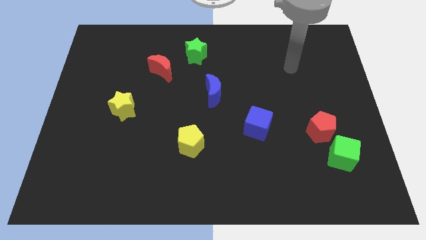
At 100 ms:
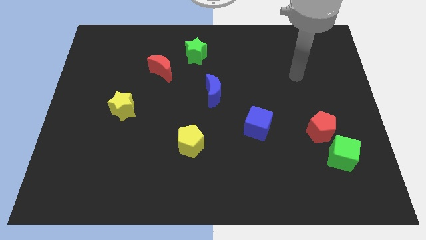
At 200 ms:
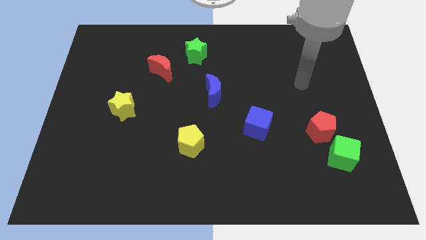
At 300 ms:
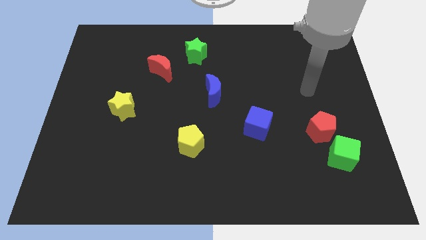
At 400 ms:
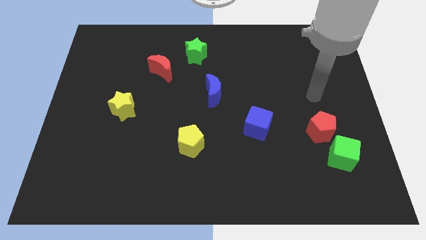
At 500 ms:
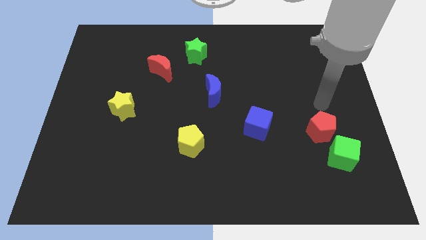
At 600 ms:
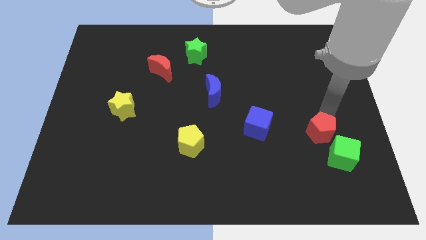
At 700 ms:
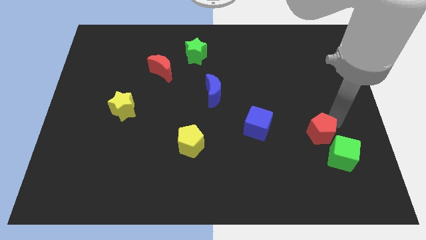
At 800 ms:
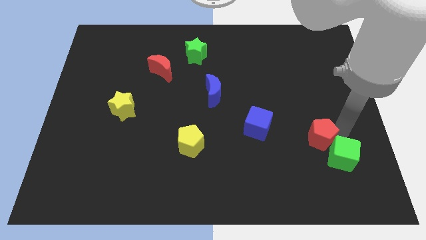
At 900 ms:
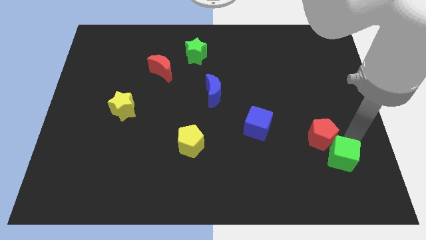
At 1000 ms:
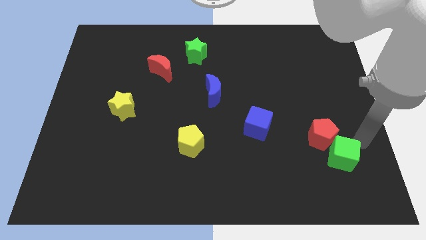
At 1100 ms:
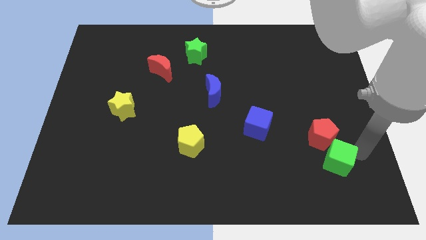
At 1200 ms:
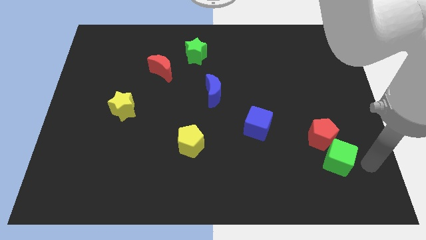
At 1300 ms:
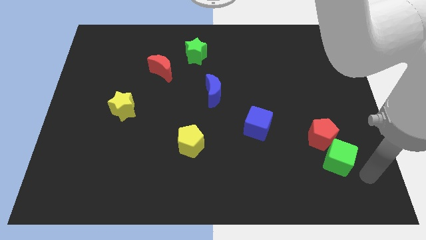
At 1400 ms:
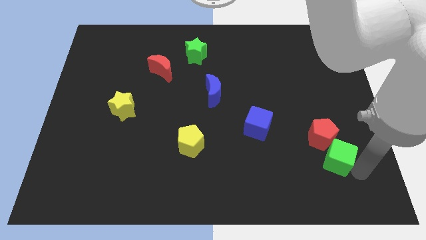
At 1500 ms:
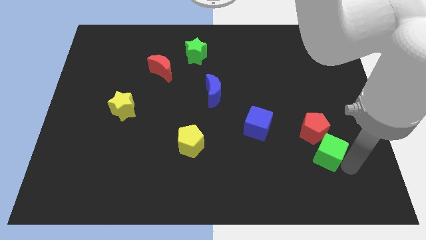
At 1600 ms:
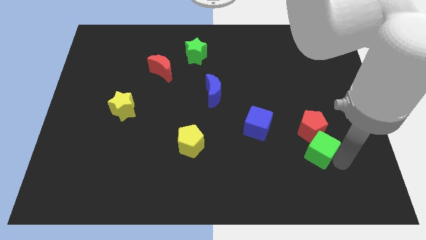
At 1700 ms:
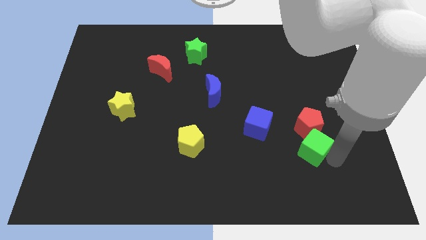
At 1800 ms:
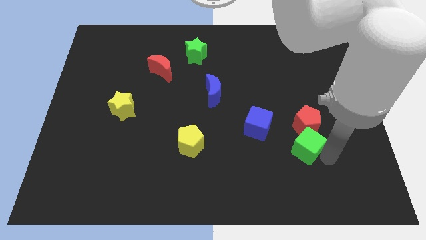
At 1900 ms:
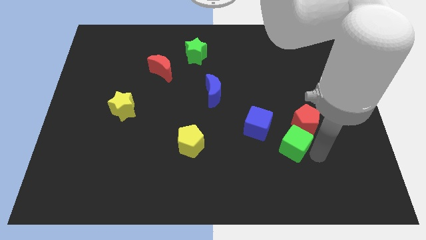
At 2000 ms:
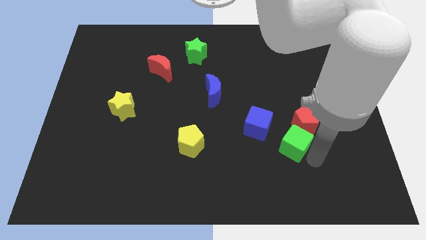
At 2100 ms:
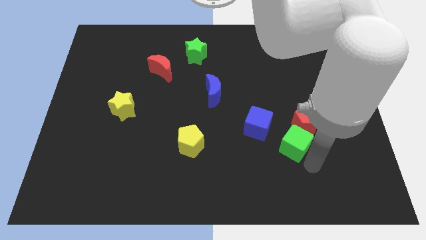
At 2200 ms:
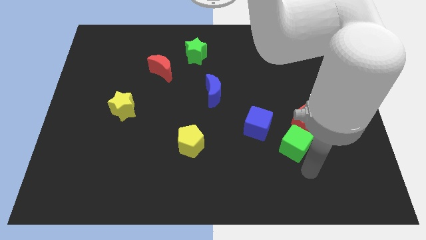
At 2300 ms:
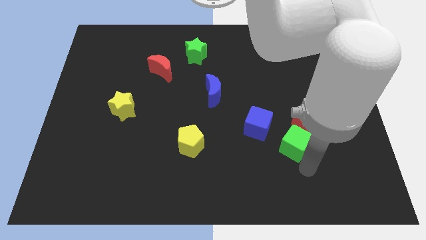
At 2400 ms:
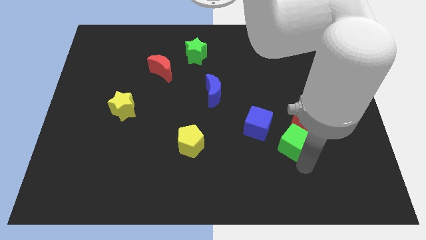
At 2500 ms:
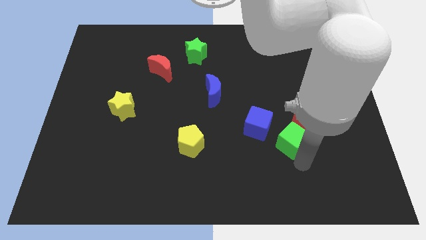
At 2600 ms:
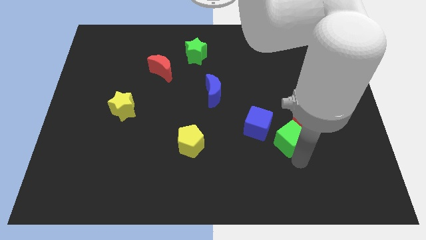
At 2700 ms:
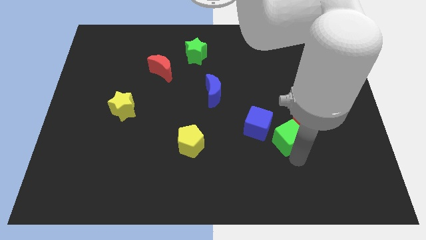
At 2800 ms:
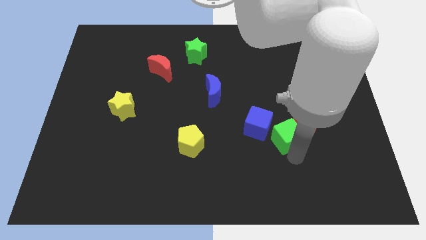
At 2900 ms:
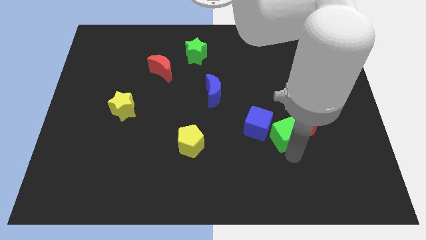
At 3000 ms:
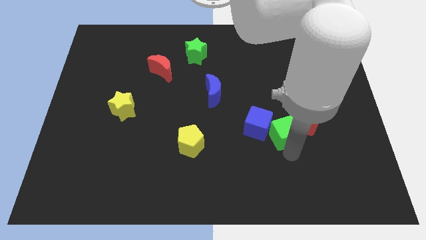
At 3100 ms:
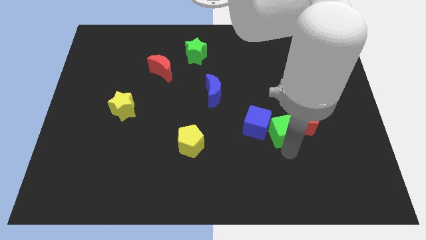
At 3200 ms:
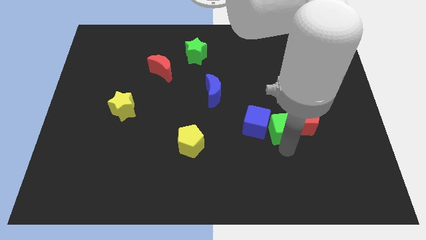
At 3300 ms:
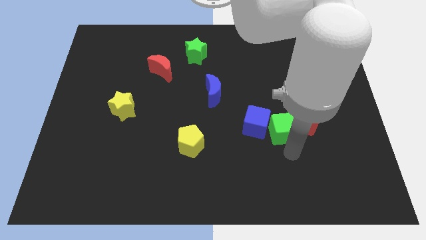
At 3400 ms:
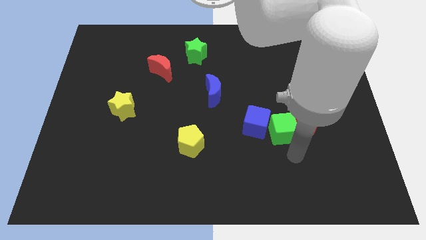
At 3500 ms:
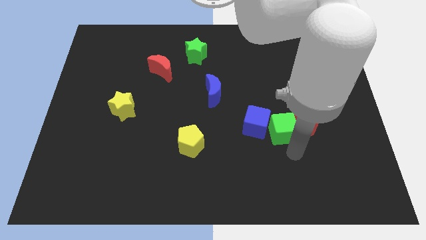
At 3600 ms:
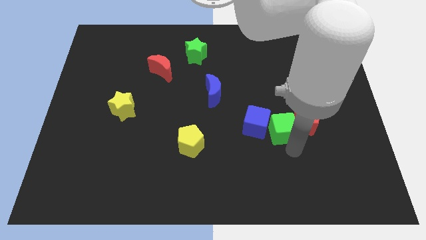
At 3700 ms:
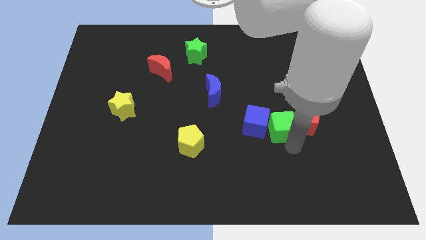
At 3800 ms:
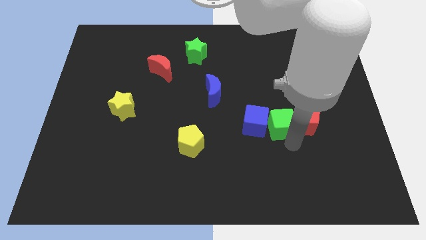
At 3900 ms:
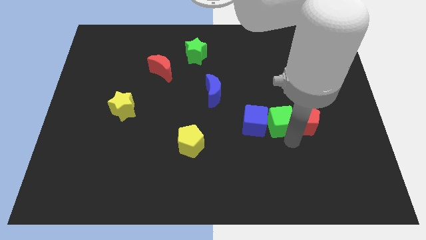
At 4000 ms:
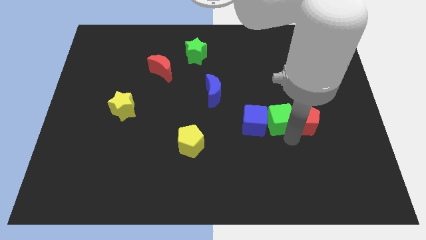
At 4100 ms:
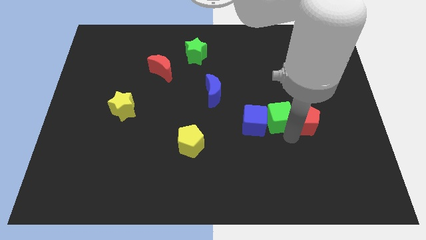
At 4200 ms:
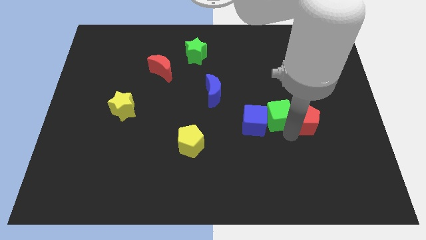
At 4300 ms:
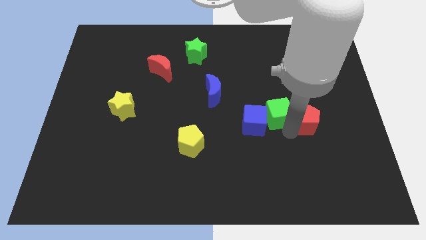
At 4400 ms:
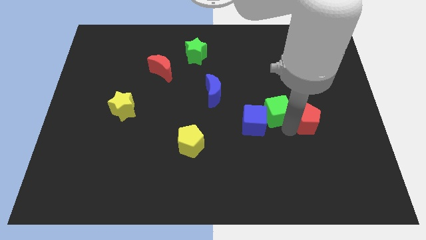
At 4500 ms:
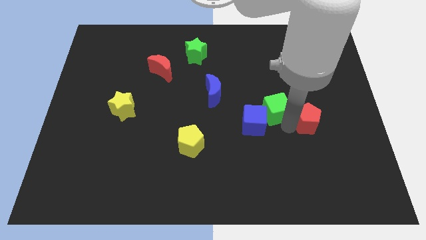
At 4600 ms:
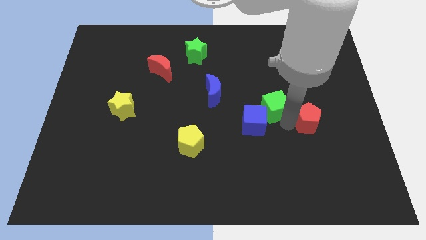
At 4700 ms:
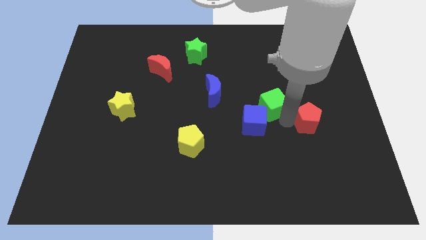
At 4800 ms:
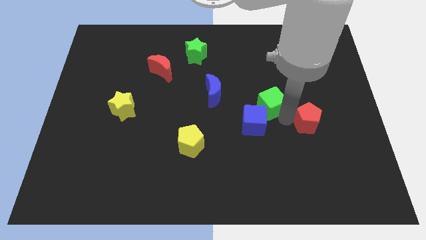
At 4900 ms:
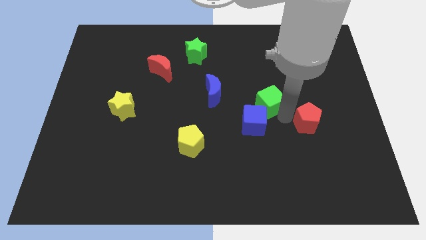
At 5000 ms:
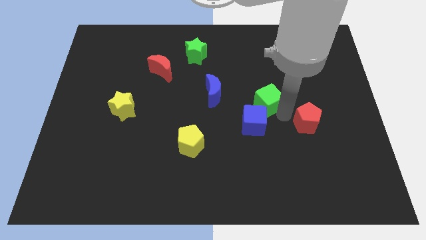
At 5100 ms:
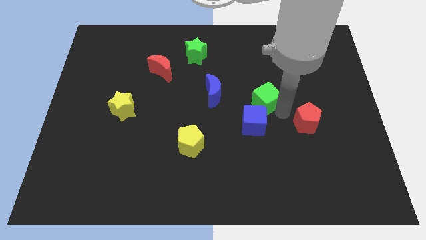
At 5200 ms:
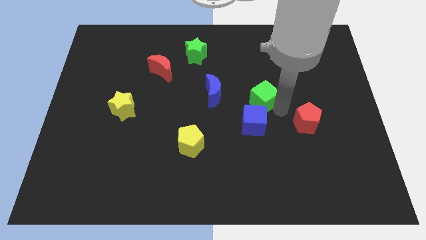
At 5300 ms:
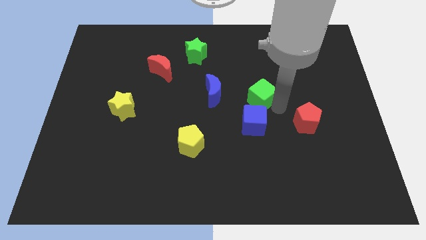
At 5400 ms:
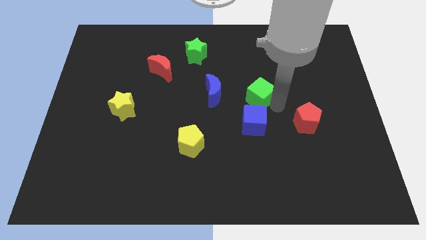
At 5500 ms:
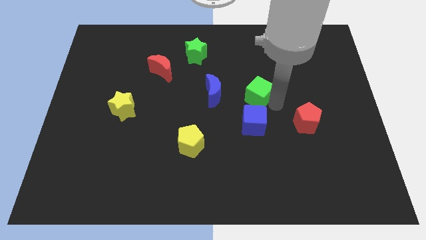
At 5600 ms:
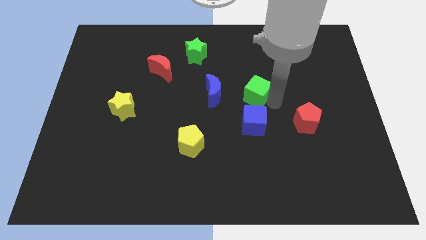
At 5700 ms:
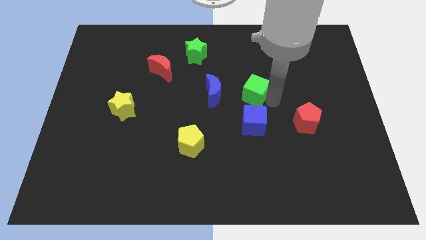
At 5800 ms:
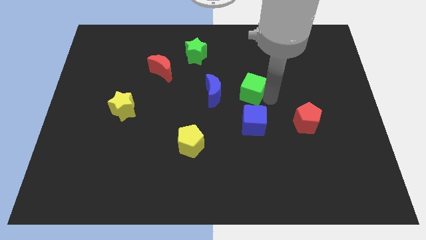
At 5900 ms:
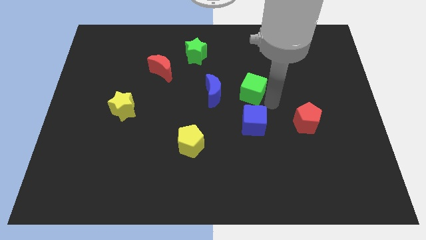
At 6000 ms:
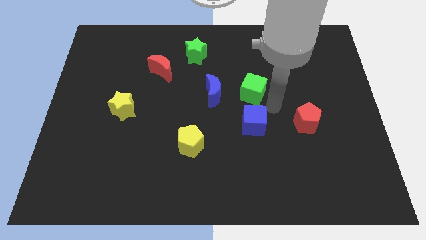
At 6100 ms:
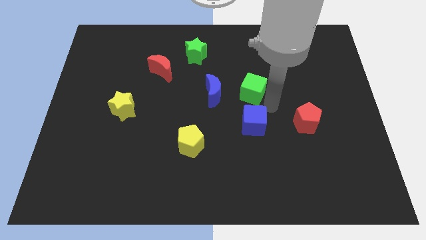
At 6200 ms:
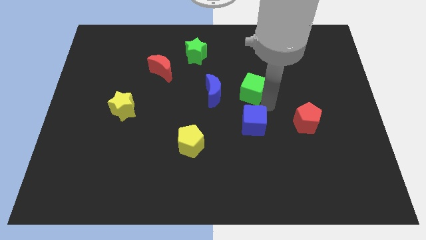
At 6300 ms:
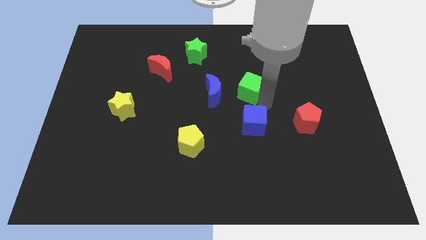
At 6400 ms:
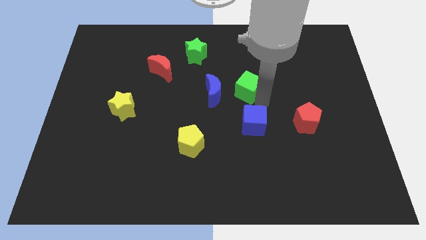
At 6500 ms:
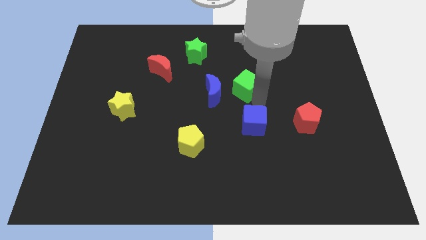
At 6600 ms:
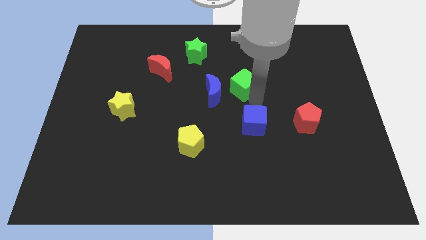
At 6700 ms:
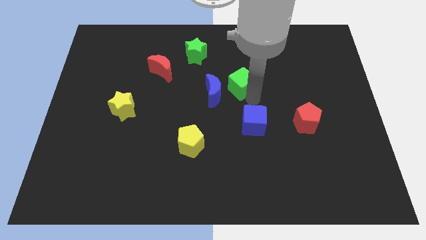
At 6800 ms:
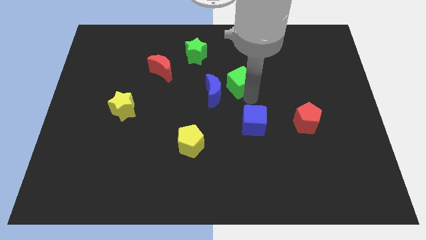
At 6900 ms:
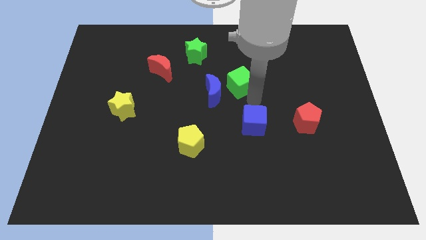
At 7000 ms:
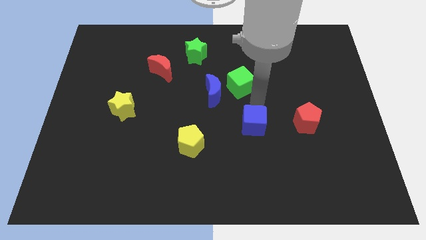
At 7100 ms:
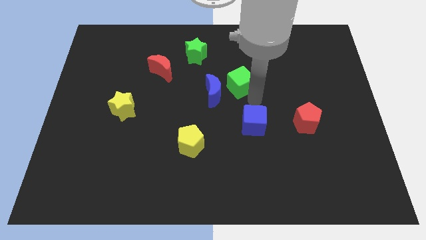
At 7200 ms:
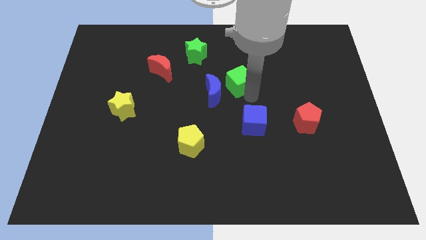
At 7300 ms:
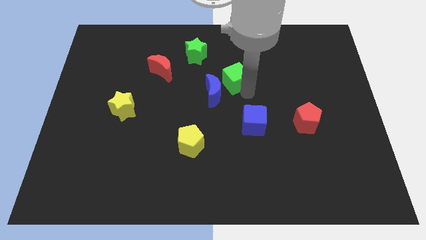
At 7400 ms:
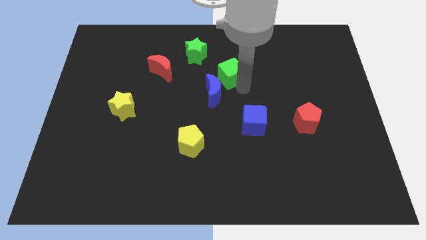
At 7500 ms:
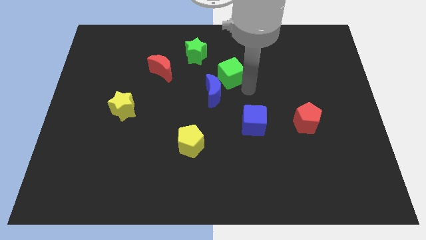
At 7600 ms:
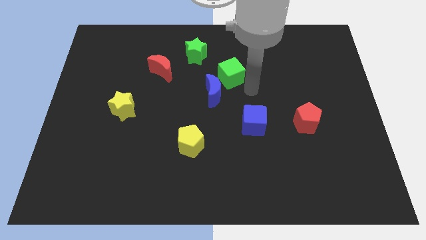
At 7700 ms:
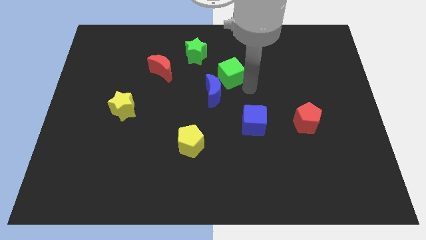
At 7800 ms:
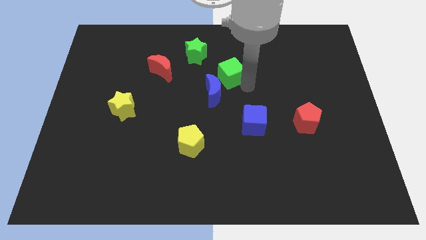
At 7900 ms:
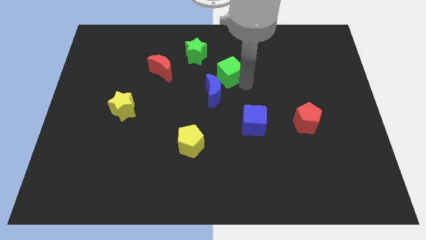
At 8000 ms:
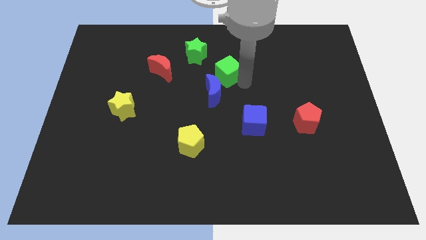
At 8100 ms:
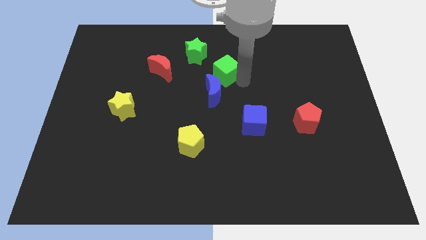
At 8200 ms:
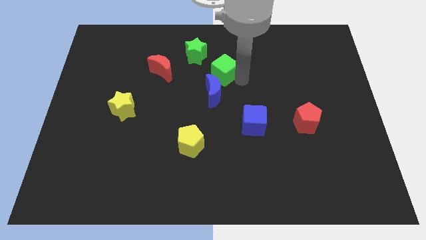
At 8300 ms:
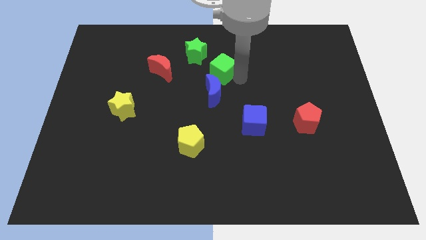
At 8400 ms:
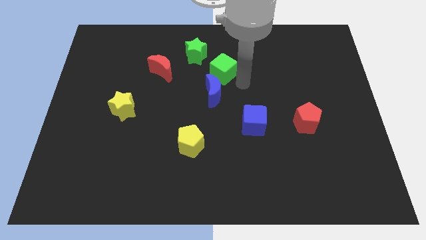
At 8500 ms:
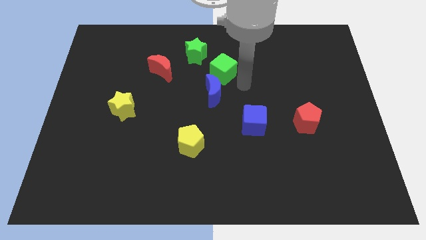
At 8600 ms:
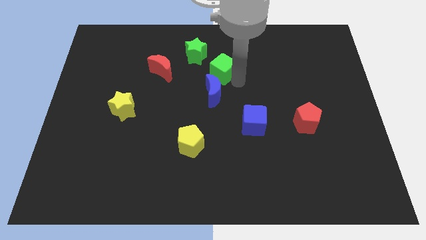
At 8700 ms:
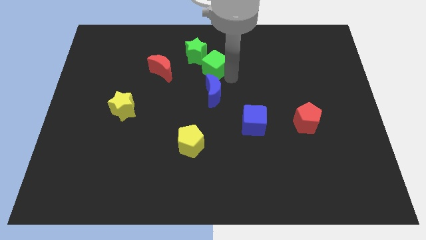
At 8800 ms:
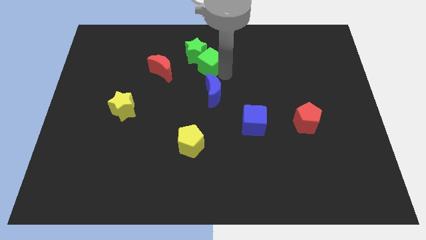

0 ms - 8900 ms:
move the green cube close to the green star
